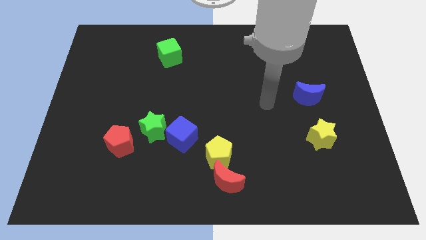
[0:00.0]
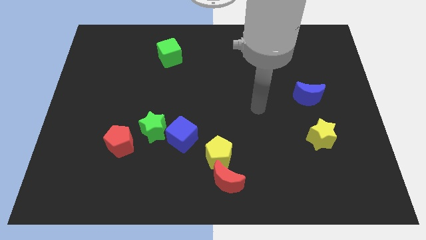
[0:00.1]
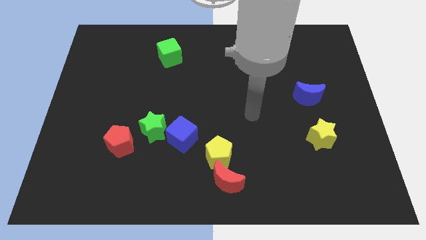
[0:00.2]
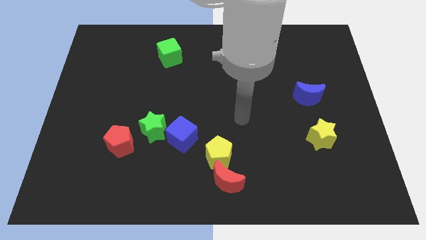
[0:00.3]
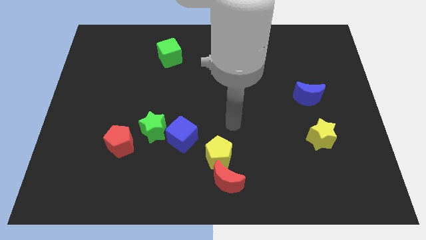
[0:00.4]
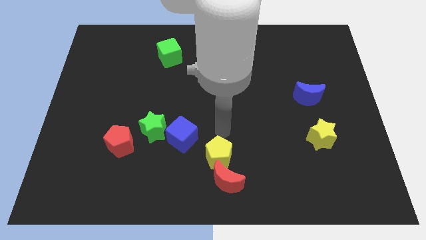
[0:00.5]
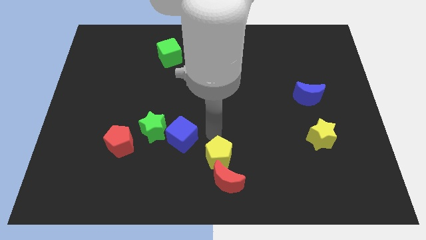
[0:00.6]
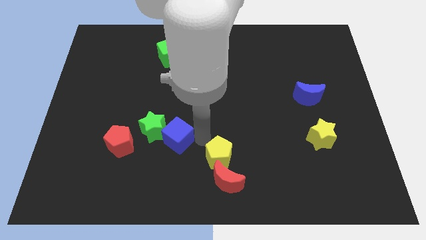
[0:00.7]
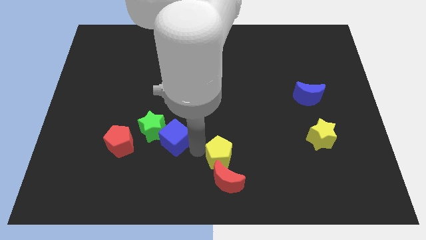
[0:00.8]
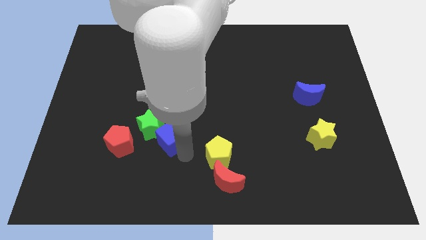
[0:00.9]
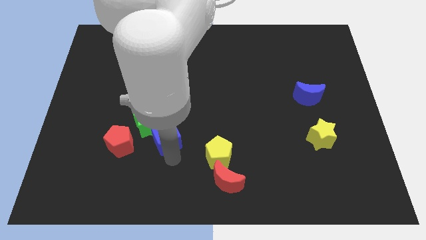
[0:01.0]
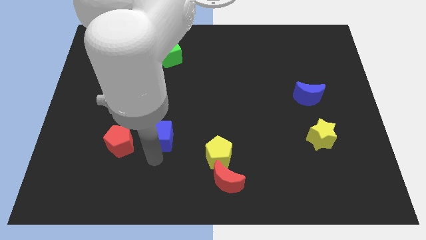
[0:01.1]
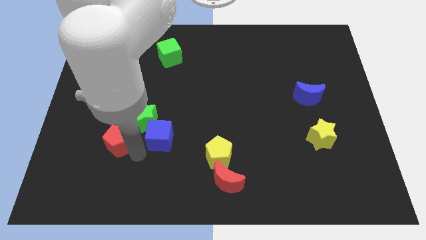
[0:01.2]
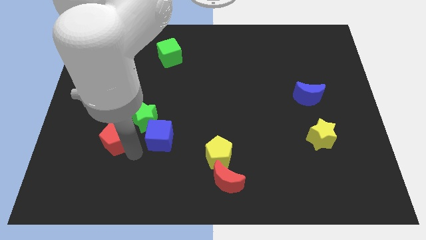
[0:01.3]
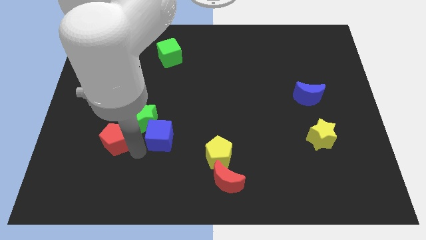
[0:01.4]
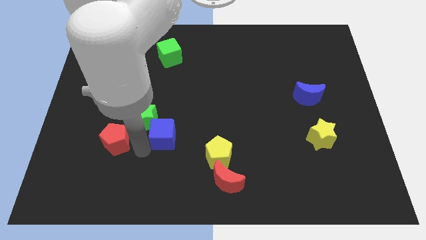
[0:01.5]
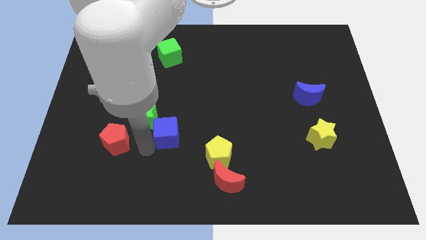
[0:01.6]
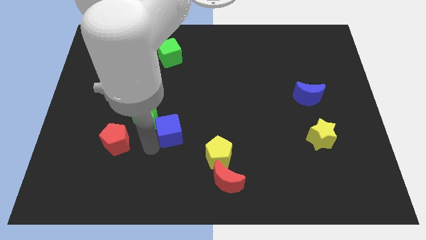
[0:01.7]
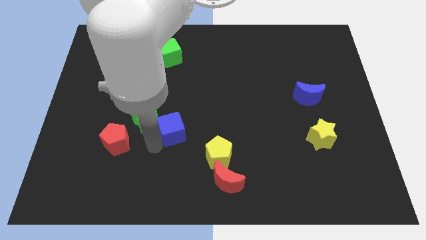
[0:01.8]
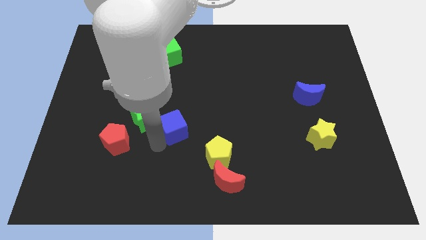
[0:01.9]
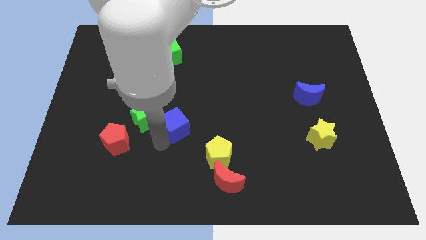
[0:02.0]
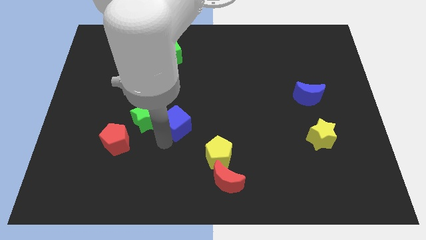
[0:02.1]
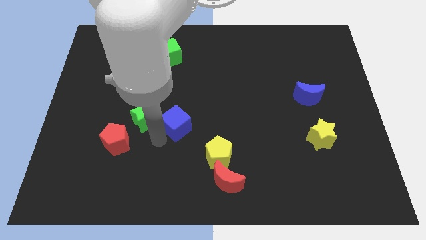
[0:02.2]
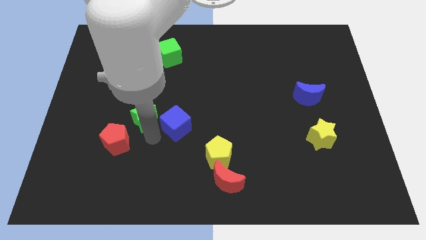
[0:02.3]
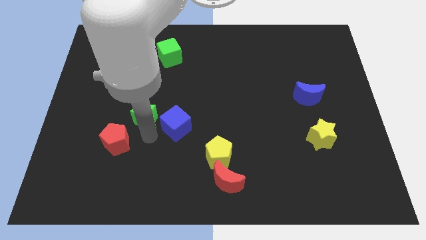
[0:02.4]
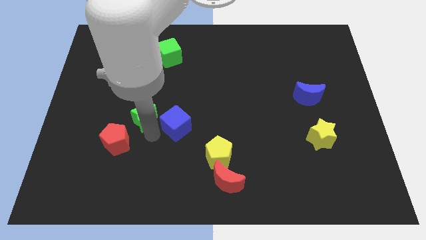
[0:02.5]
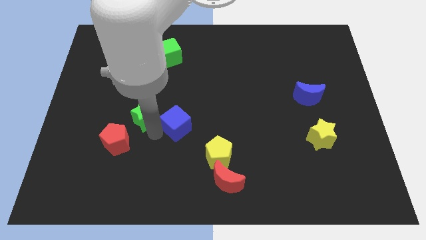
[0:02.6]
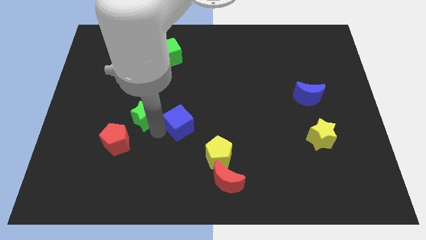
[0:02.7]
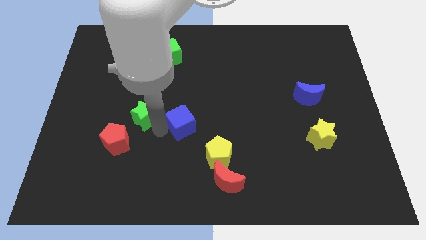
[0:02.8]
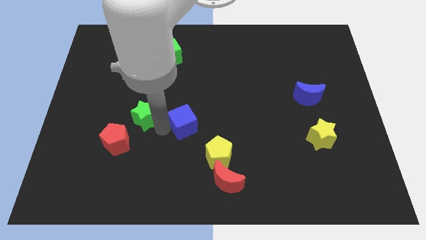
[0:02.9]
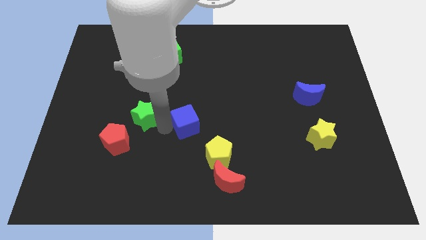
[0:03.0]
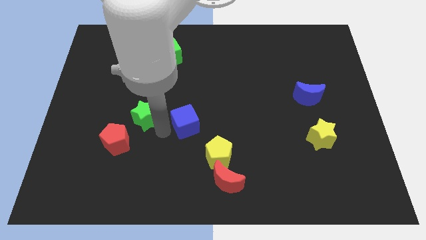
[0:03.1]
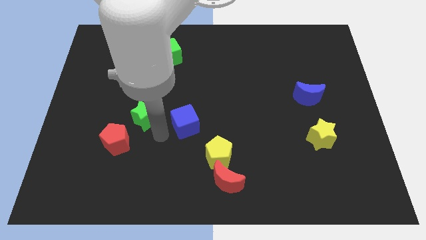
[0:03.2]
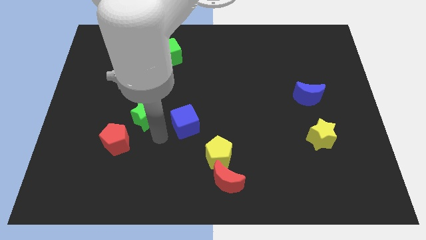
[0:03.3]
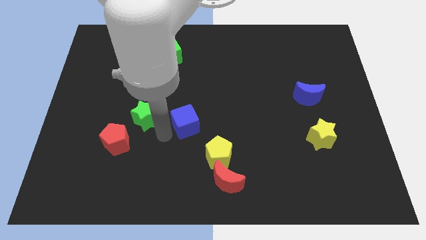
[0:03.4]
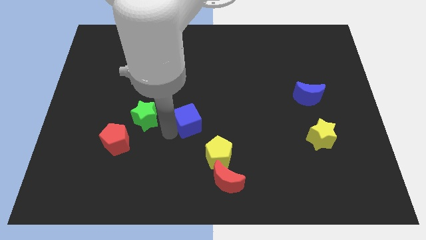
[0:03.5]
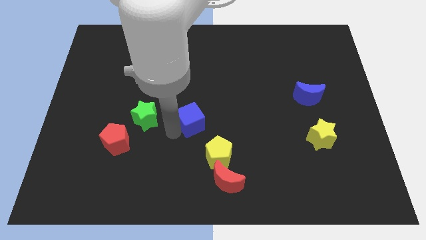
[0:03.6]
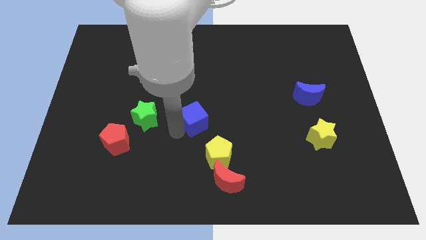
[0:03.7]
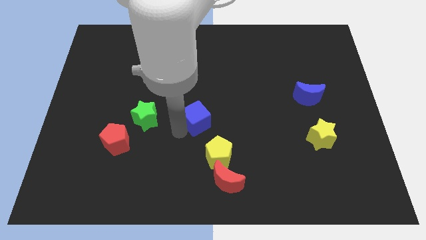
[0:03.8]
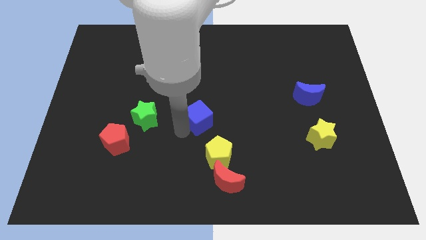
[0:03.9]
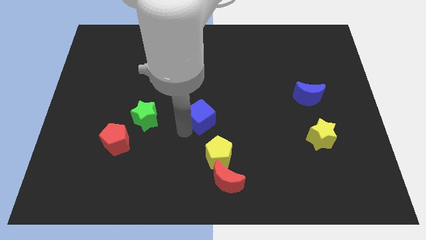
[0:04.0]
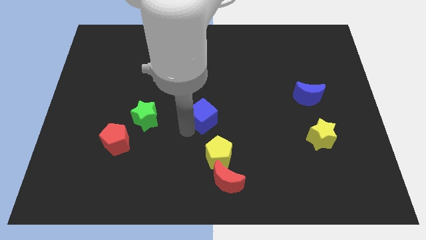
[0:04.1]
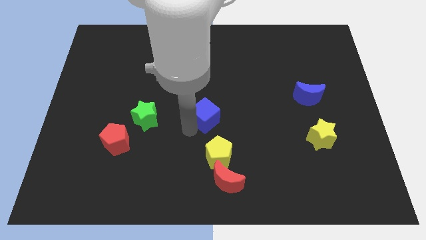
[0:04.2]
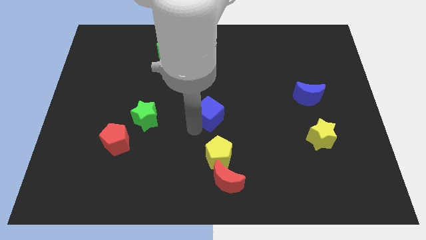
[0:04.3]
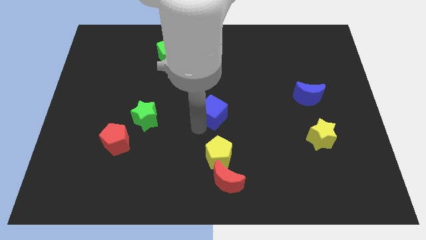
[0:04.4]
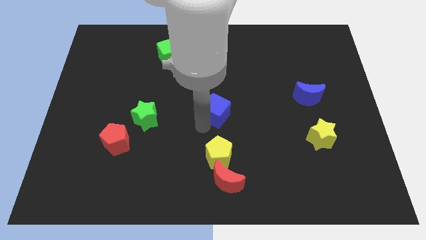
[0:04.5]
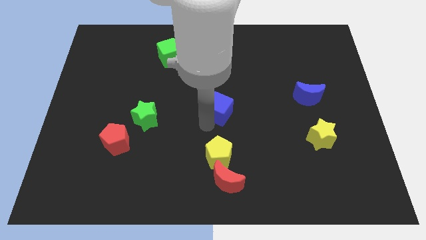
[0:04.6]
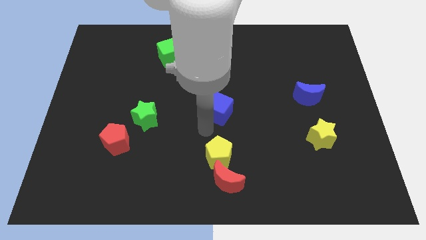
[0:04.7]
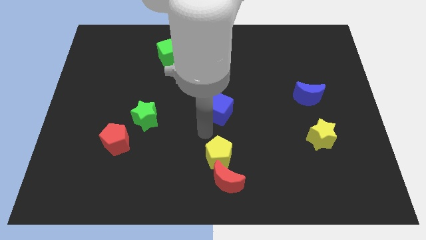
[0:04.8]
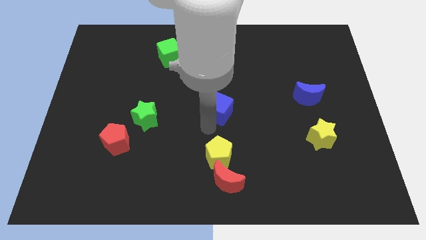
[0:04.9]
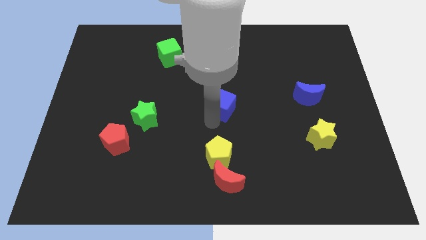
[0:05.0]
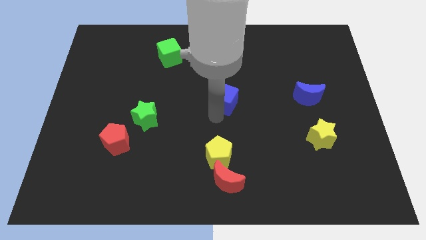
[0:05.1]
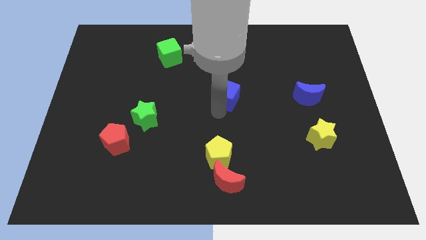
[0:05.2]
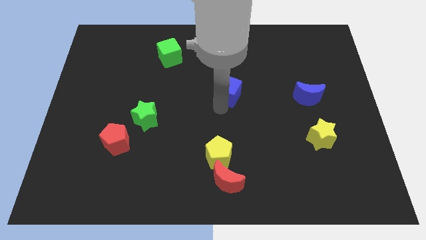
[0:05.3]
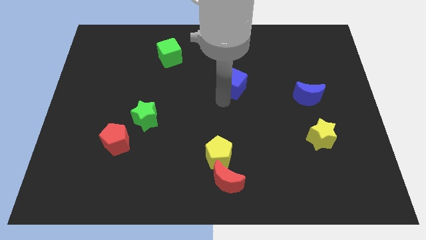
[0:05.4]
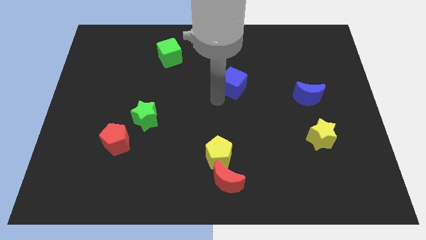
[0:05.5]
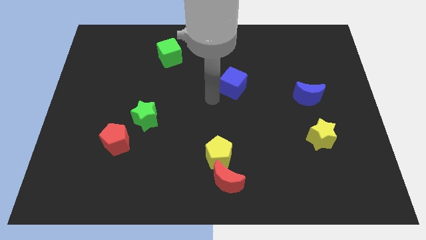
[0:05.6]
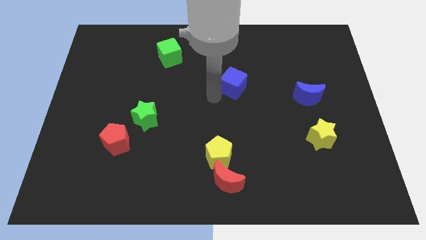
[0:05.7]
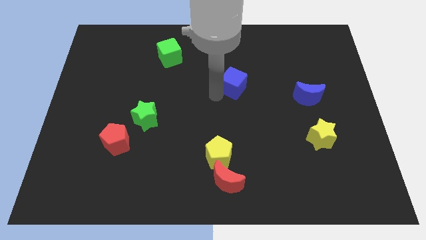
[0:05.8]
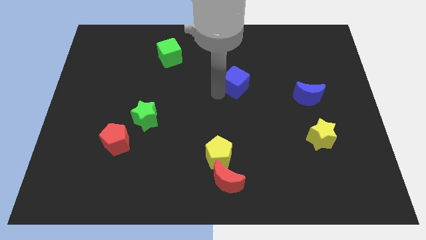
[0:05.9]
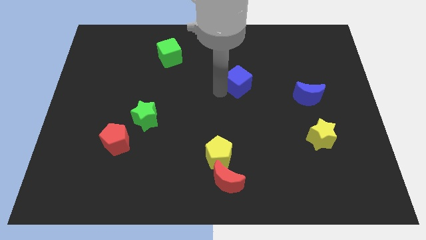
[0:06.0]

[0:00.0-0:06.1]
move the blue cube upwards and then right

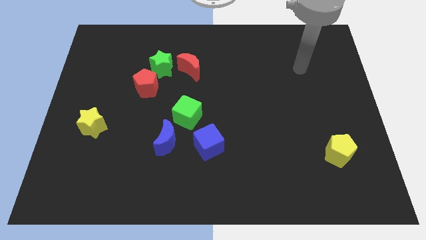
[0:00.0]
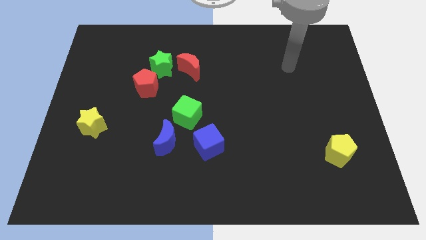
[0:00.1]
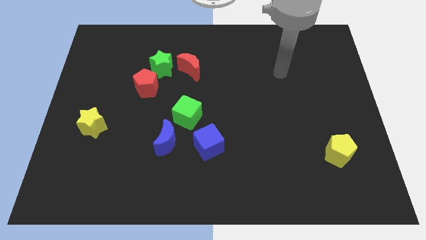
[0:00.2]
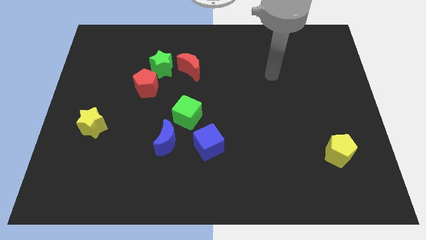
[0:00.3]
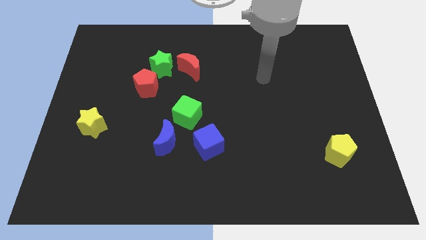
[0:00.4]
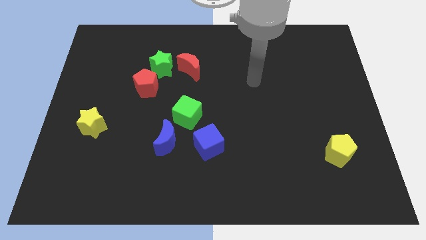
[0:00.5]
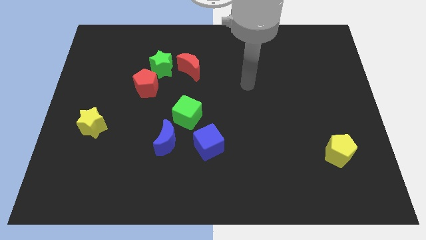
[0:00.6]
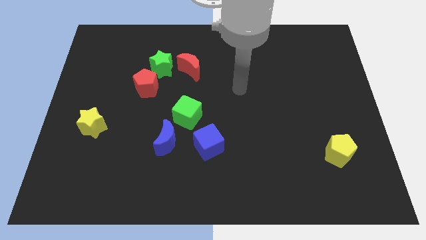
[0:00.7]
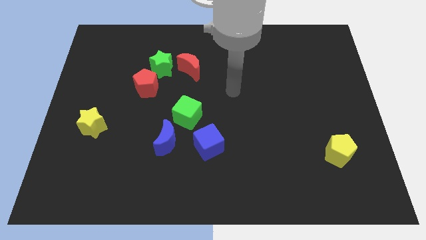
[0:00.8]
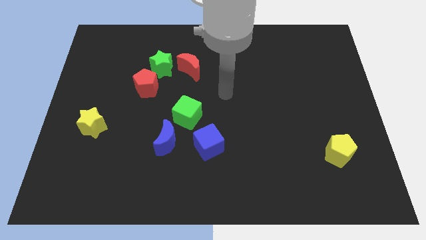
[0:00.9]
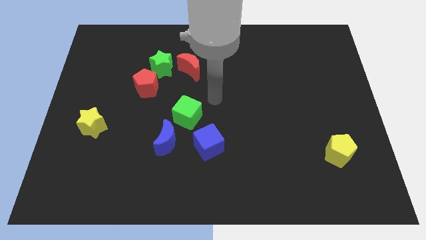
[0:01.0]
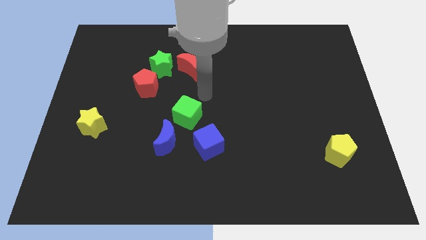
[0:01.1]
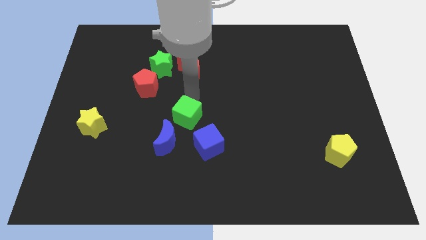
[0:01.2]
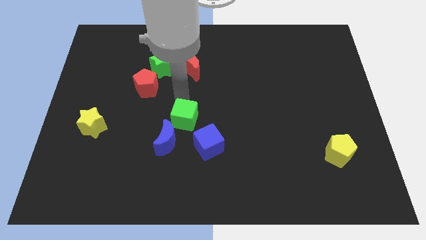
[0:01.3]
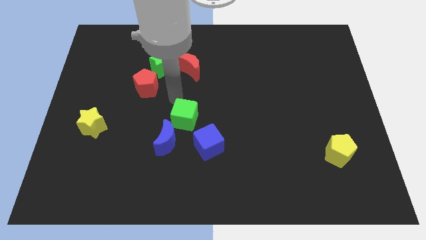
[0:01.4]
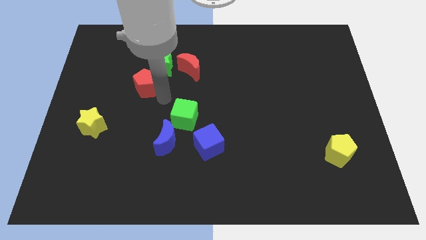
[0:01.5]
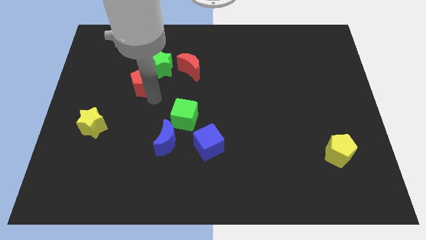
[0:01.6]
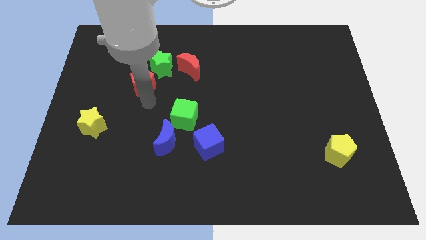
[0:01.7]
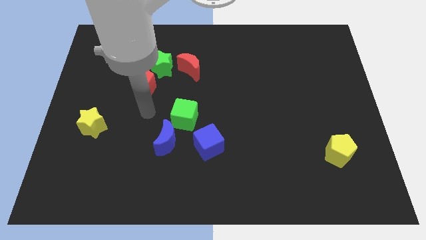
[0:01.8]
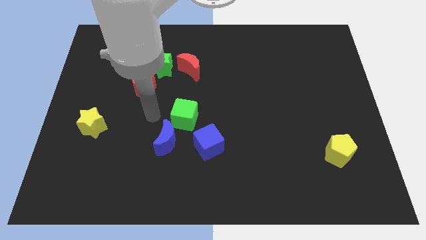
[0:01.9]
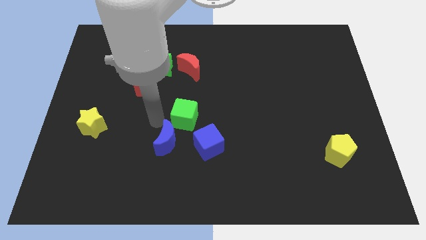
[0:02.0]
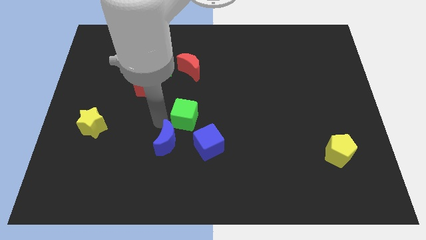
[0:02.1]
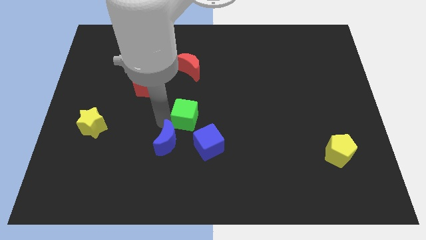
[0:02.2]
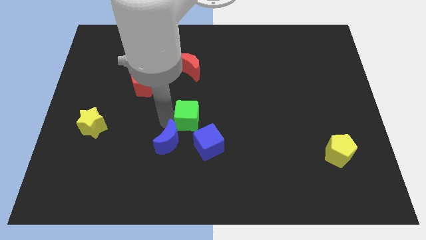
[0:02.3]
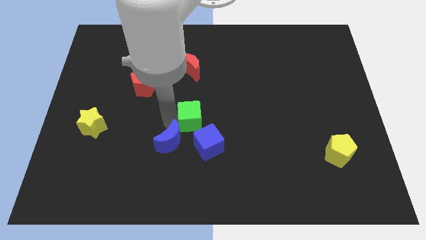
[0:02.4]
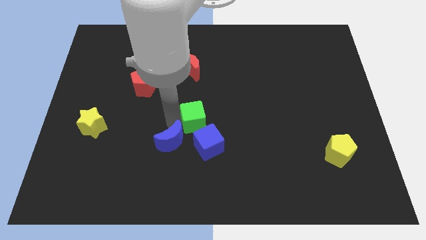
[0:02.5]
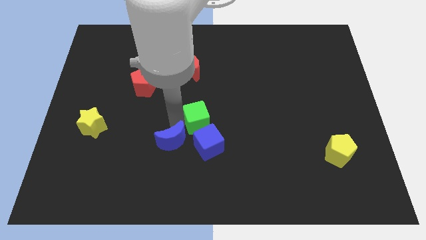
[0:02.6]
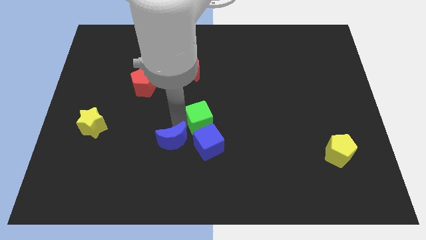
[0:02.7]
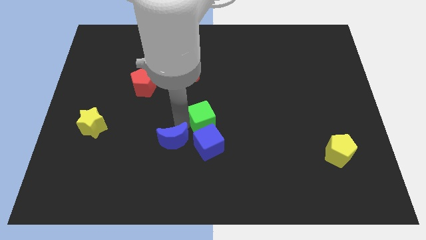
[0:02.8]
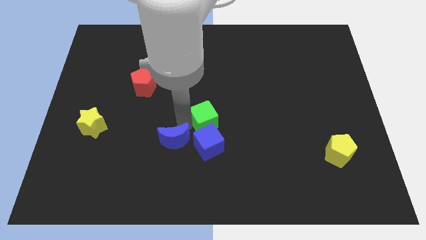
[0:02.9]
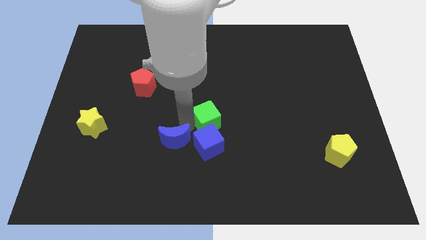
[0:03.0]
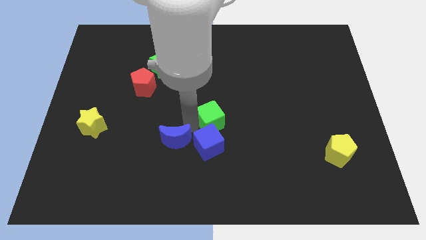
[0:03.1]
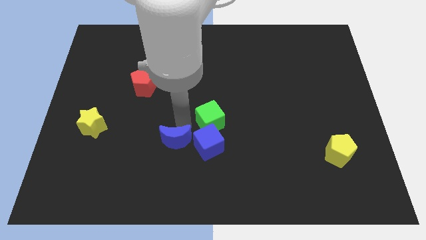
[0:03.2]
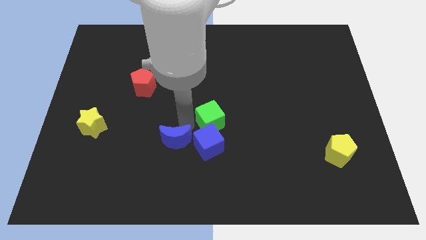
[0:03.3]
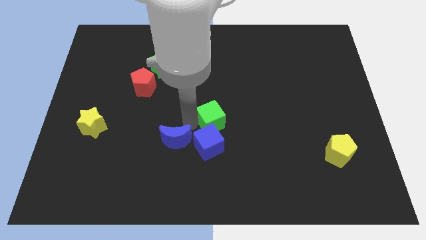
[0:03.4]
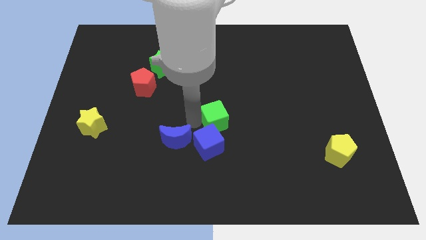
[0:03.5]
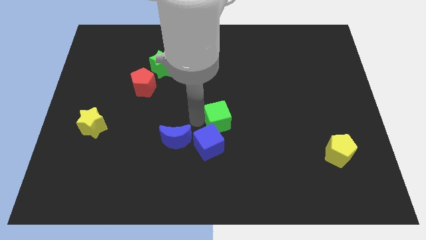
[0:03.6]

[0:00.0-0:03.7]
move the green cube a little right
